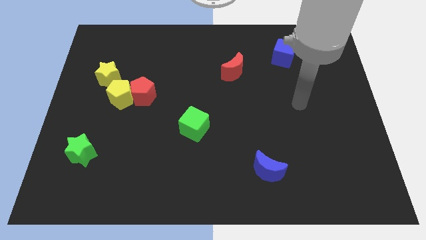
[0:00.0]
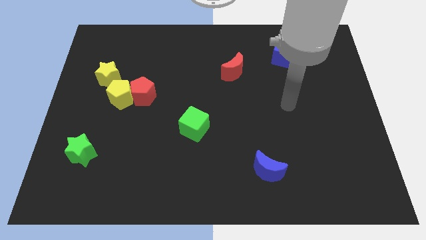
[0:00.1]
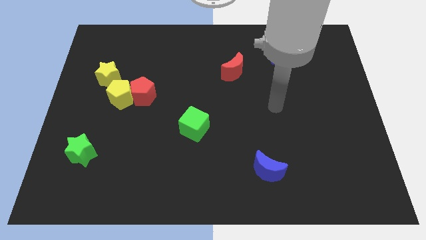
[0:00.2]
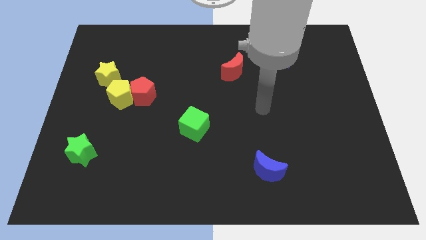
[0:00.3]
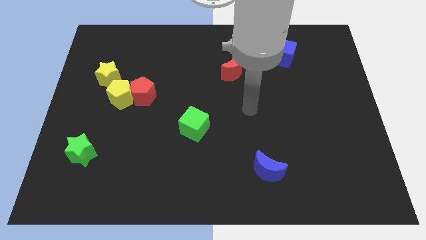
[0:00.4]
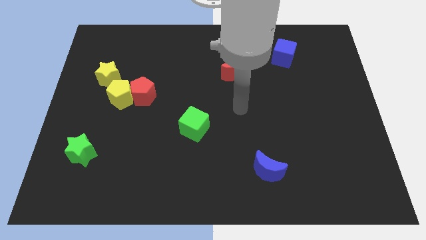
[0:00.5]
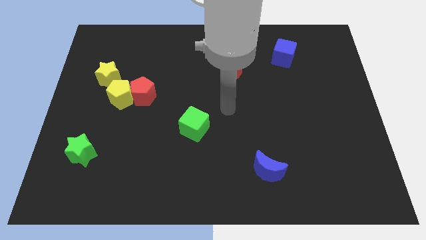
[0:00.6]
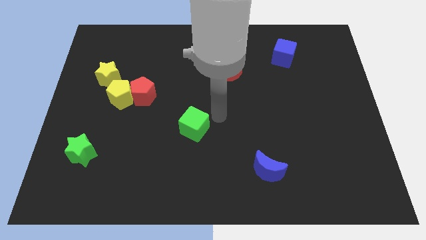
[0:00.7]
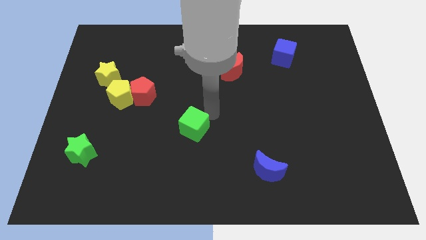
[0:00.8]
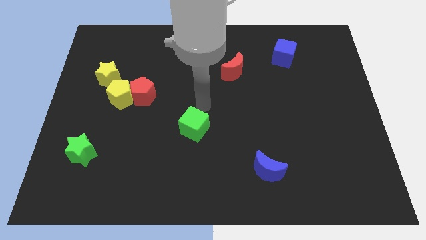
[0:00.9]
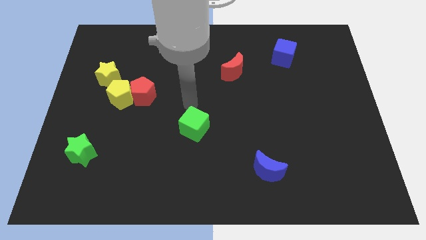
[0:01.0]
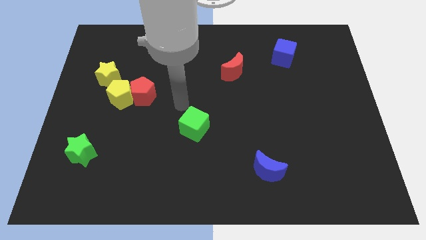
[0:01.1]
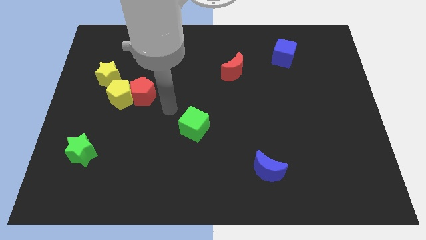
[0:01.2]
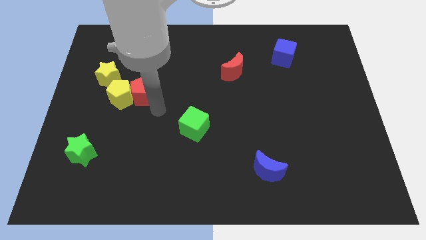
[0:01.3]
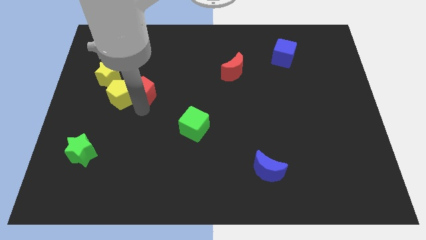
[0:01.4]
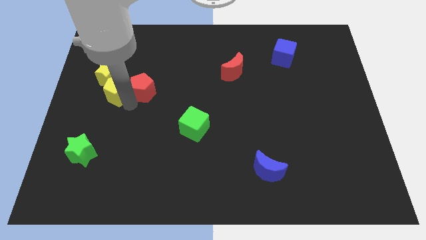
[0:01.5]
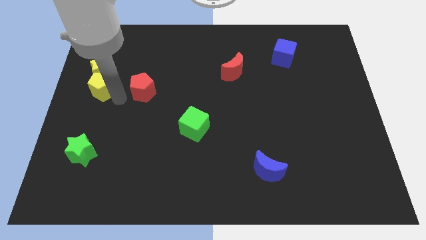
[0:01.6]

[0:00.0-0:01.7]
separate the red pentagon from the yellow pentagon

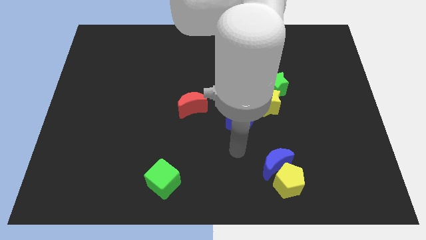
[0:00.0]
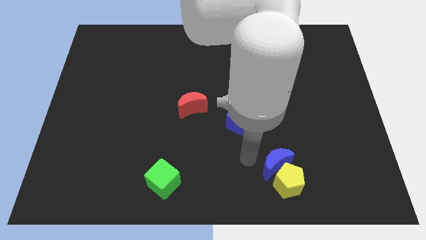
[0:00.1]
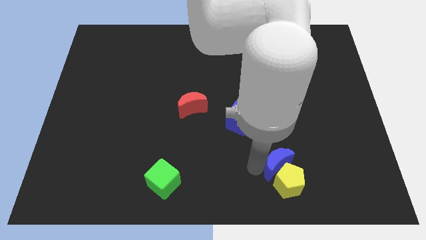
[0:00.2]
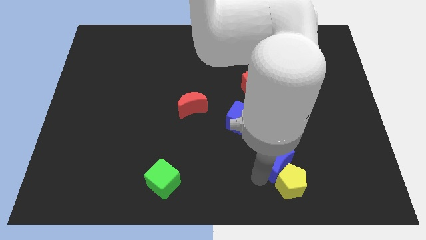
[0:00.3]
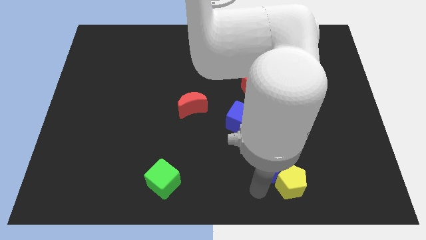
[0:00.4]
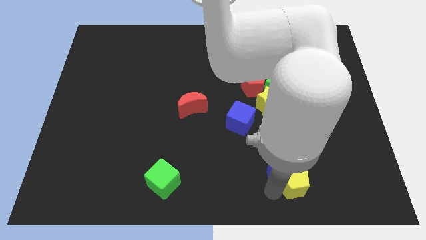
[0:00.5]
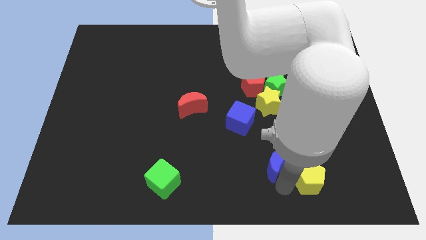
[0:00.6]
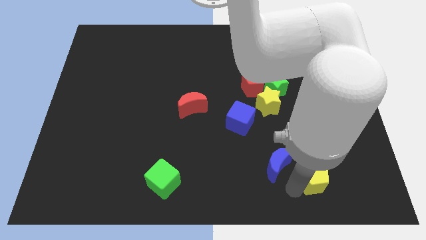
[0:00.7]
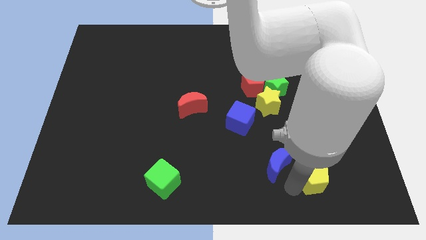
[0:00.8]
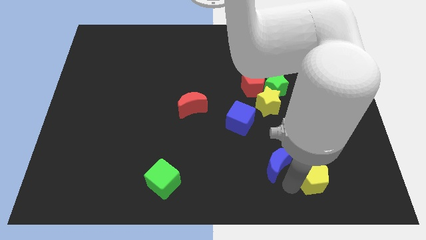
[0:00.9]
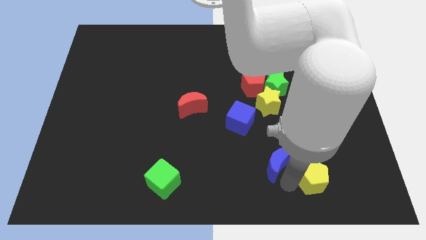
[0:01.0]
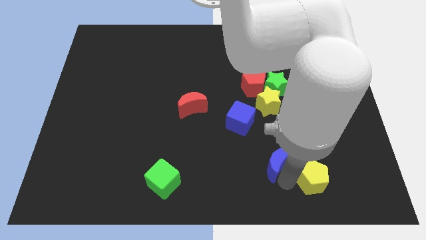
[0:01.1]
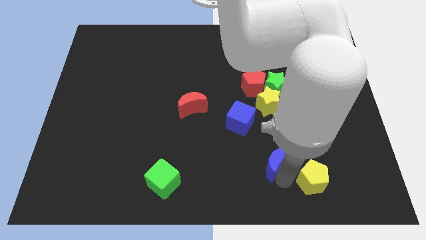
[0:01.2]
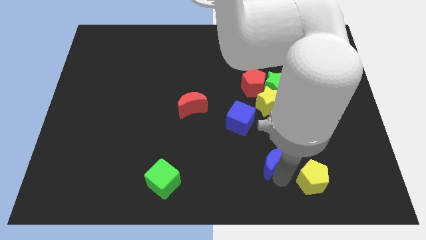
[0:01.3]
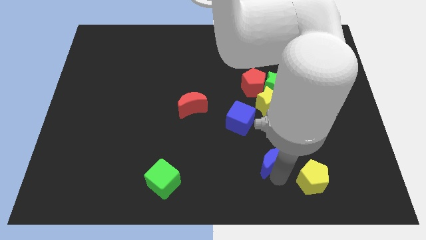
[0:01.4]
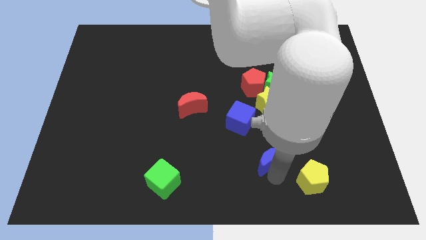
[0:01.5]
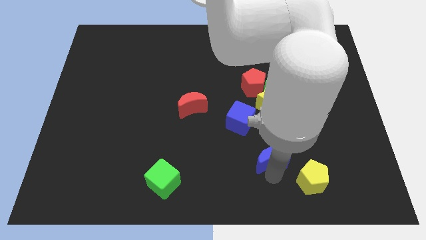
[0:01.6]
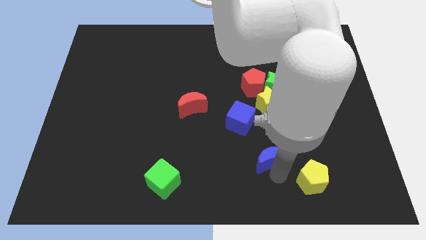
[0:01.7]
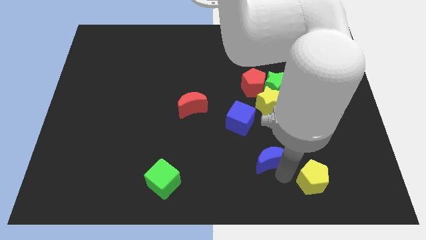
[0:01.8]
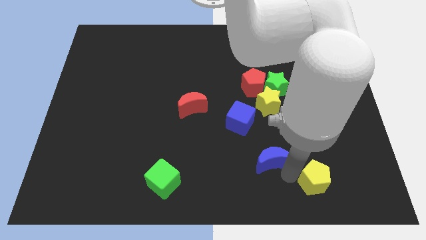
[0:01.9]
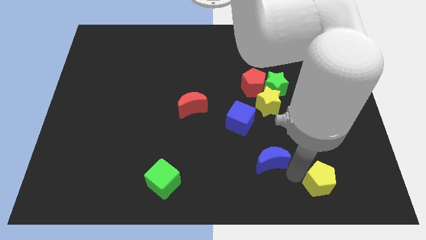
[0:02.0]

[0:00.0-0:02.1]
move the blue moon away from the yellow pentagon

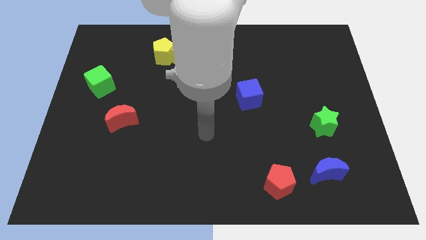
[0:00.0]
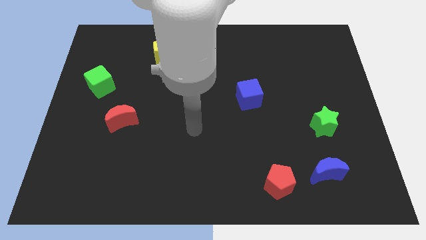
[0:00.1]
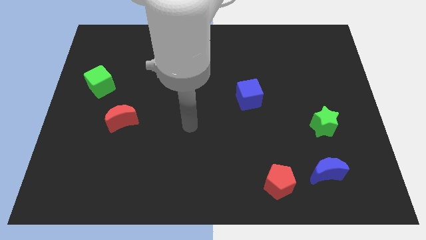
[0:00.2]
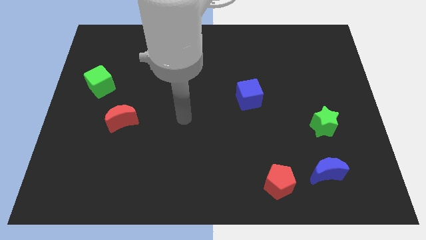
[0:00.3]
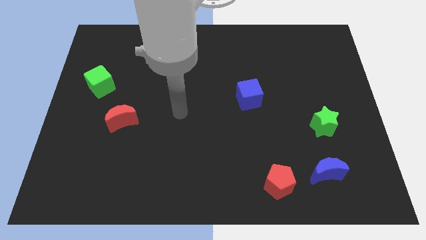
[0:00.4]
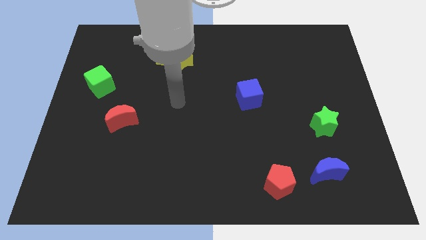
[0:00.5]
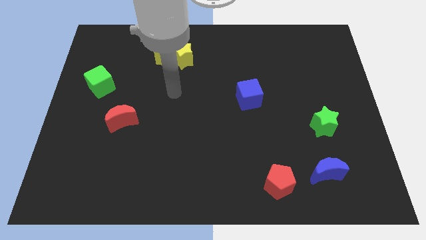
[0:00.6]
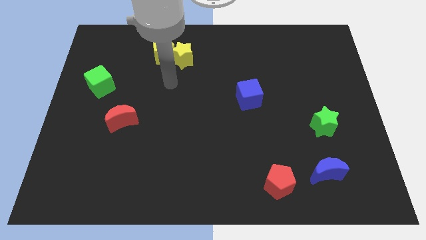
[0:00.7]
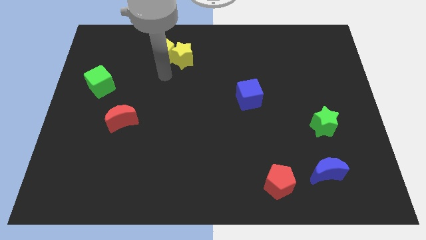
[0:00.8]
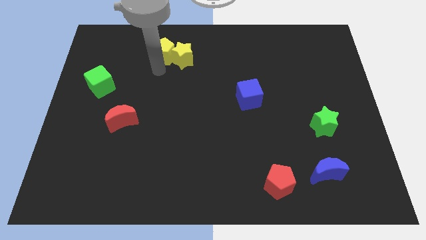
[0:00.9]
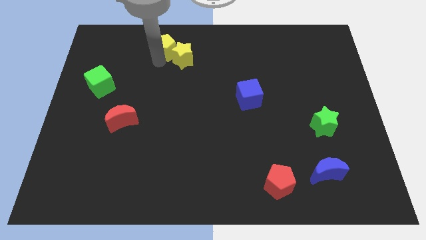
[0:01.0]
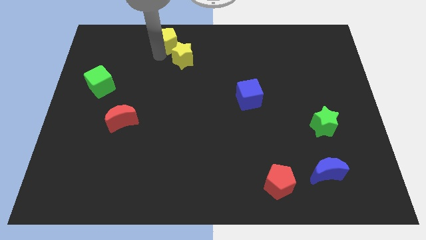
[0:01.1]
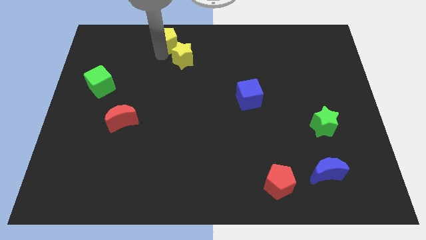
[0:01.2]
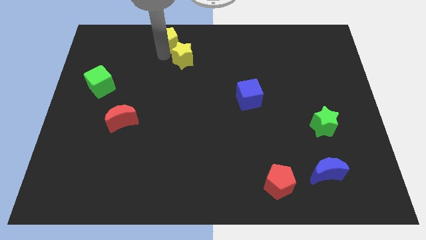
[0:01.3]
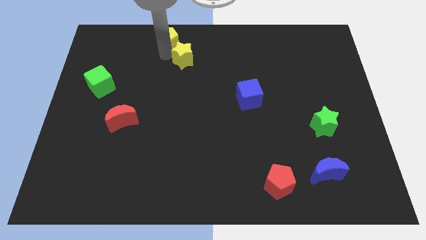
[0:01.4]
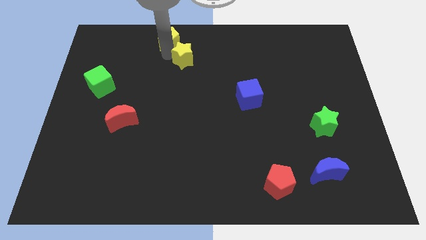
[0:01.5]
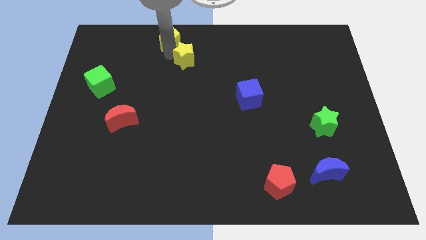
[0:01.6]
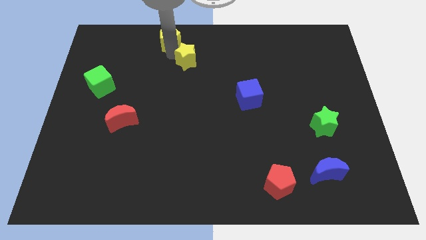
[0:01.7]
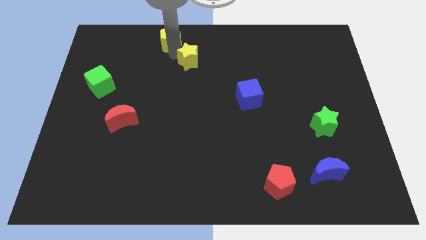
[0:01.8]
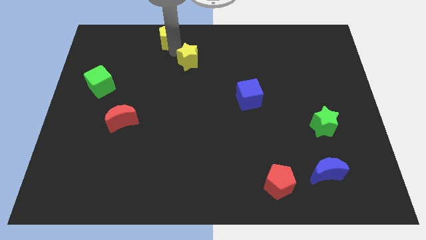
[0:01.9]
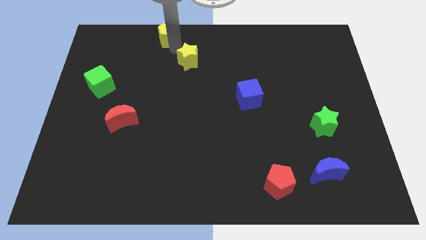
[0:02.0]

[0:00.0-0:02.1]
pull the yellow star apart from the yellow pentagon

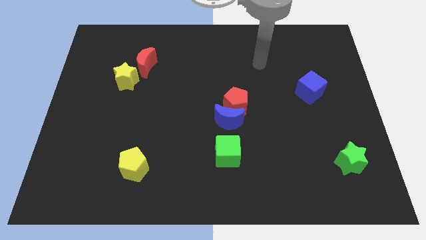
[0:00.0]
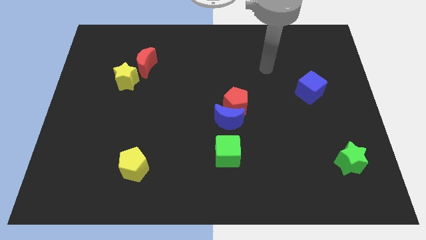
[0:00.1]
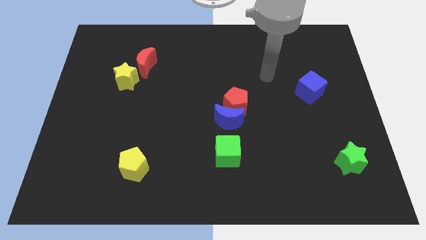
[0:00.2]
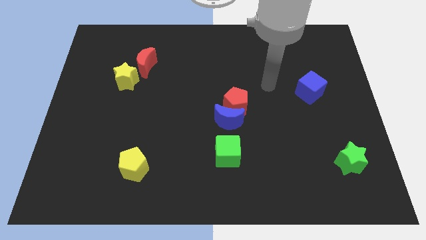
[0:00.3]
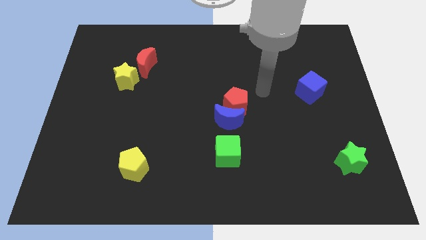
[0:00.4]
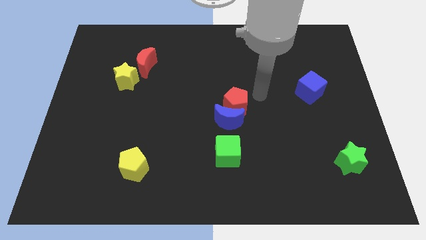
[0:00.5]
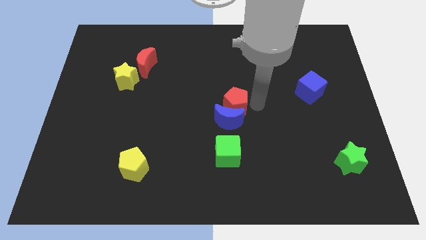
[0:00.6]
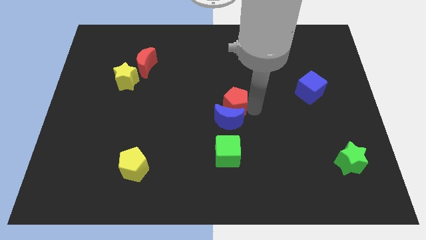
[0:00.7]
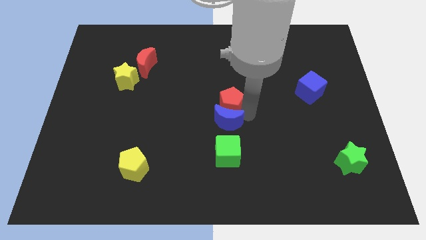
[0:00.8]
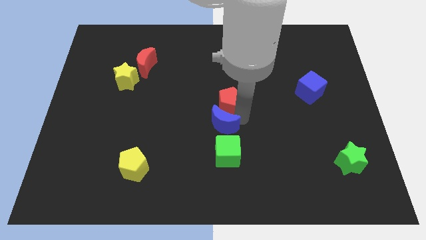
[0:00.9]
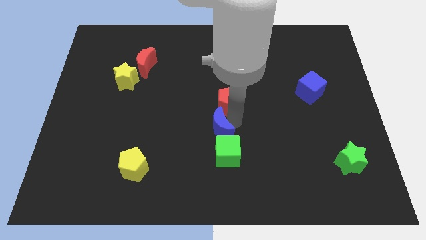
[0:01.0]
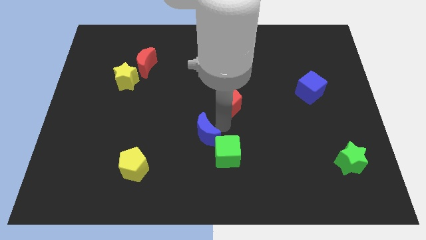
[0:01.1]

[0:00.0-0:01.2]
move the red pentagon away from the blue moon

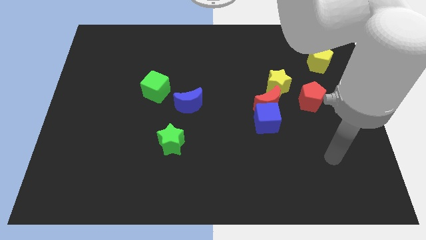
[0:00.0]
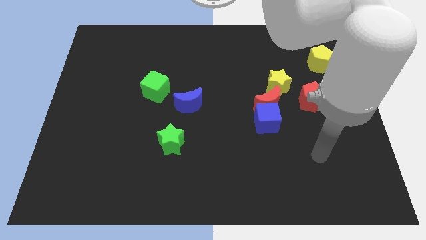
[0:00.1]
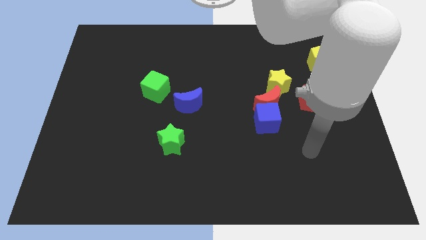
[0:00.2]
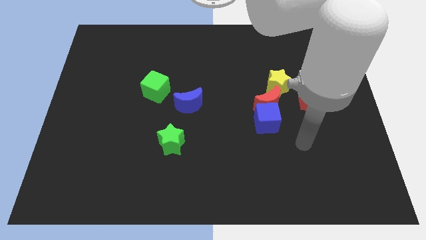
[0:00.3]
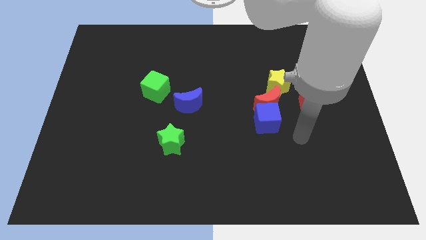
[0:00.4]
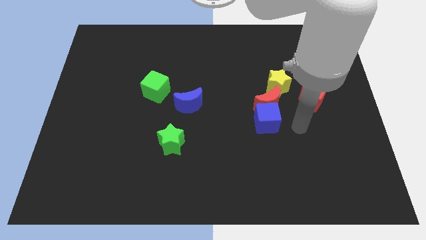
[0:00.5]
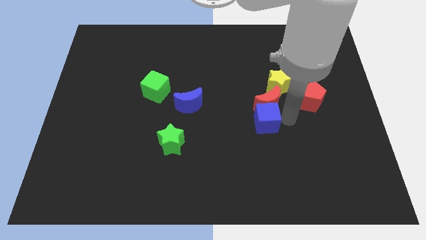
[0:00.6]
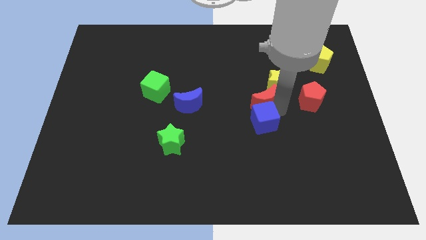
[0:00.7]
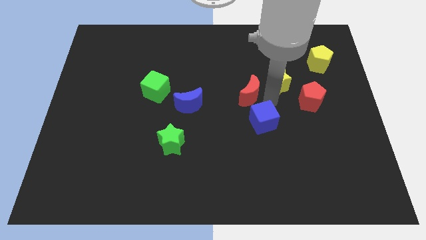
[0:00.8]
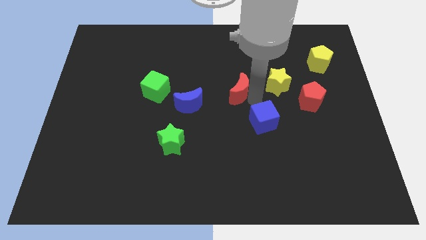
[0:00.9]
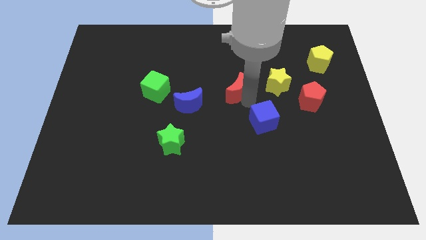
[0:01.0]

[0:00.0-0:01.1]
move the blue cube away from the red moon

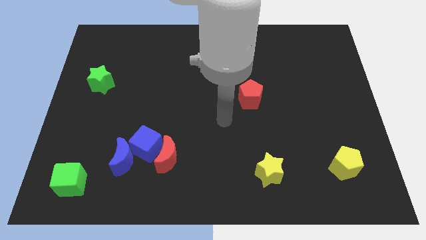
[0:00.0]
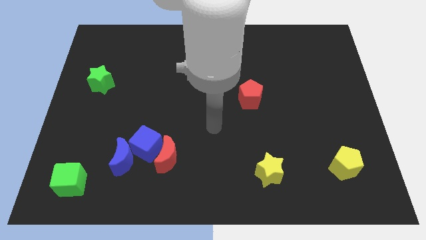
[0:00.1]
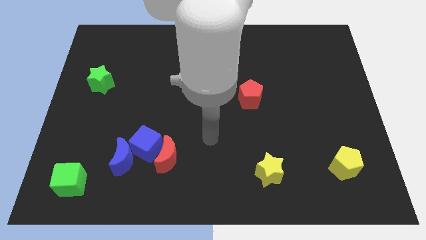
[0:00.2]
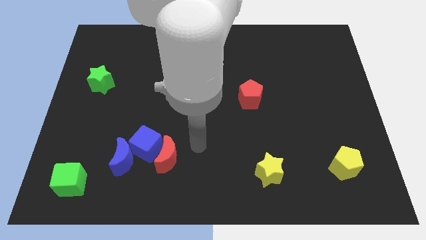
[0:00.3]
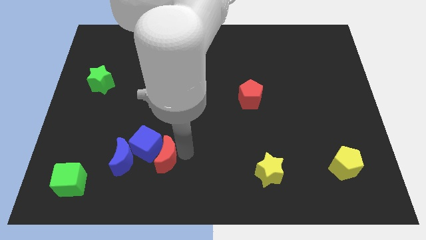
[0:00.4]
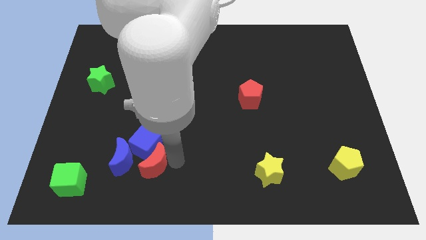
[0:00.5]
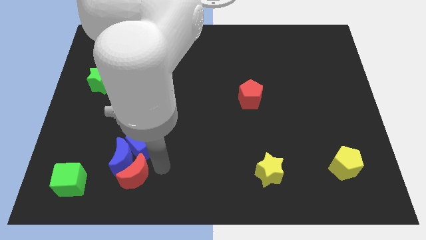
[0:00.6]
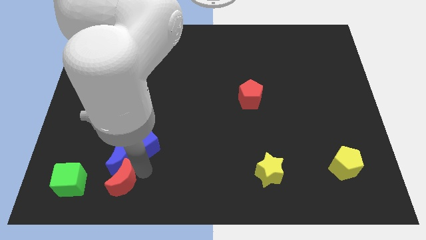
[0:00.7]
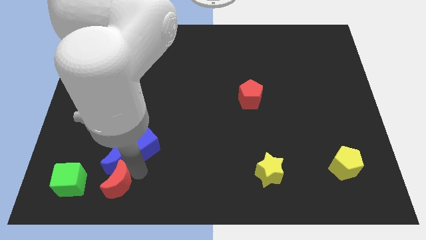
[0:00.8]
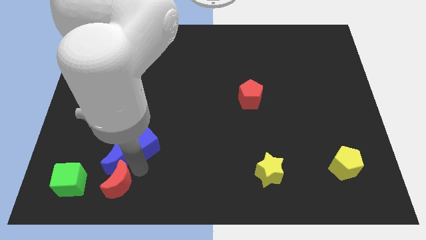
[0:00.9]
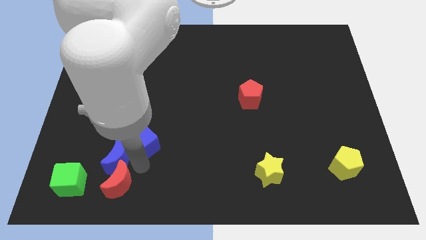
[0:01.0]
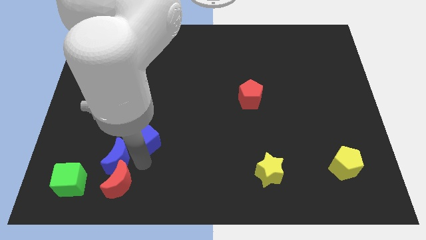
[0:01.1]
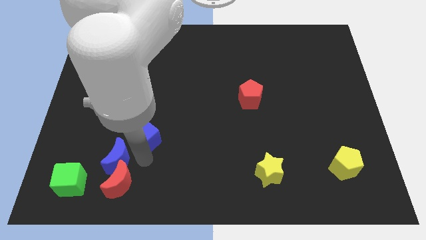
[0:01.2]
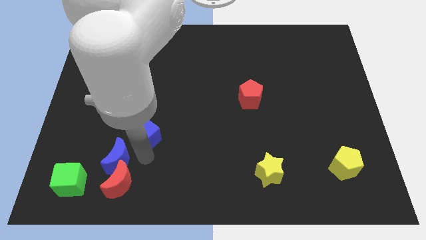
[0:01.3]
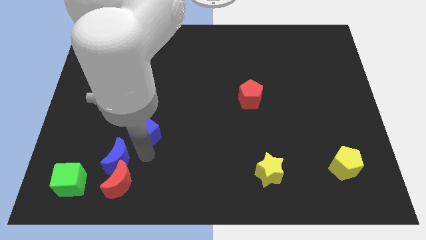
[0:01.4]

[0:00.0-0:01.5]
pull the blue cube apart from the red moon and blue moon
